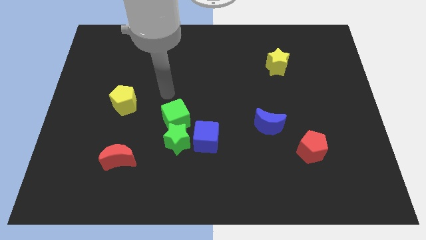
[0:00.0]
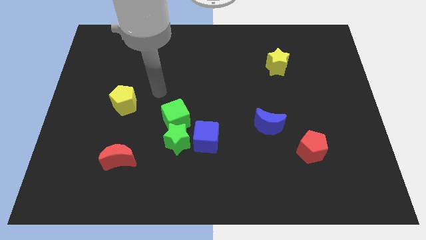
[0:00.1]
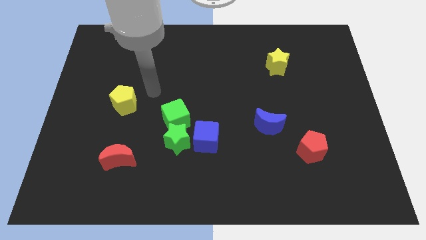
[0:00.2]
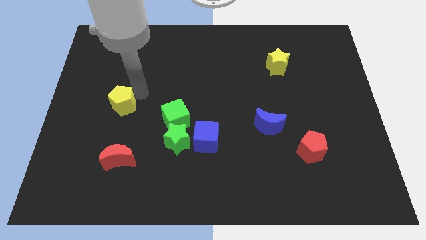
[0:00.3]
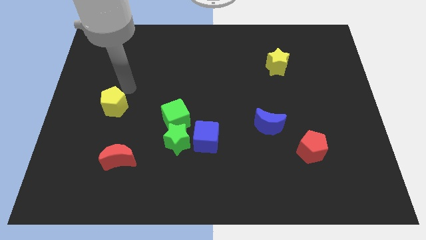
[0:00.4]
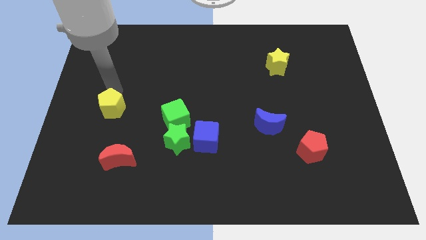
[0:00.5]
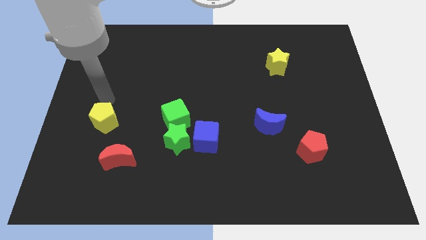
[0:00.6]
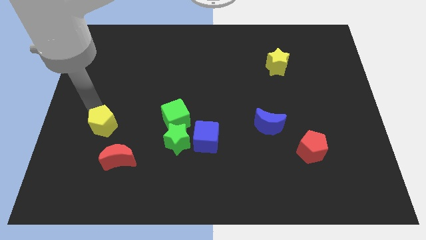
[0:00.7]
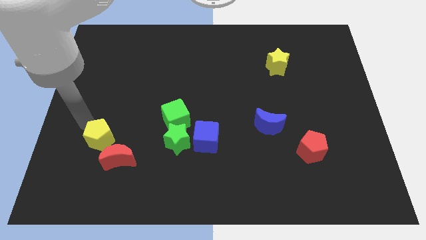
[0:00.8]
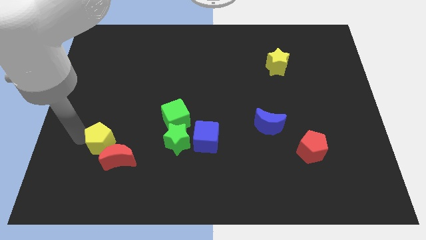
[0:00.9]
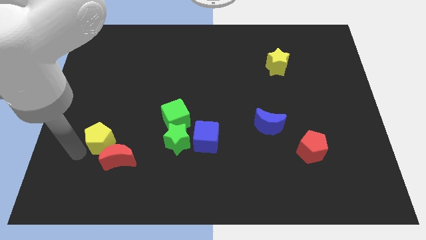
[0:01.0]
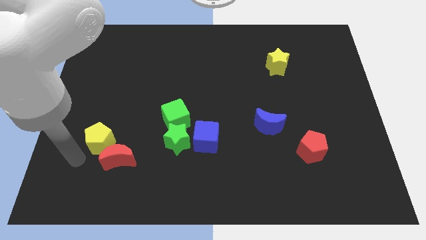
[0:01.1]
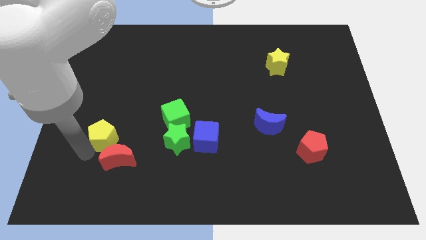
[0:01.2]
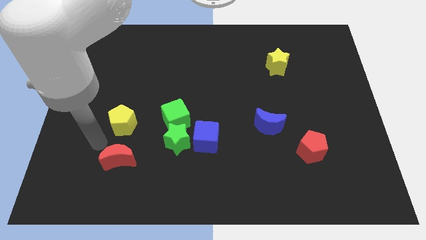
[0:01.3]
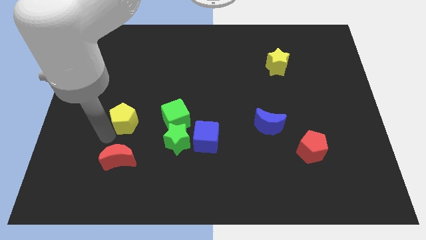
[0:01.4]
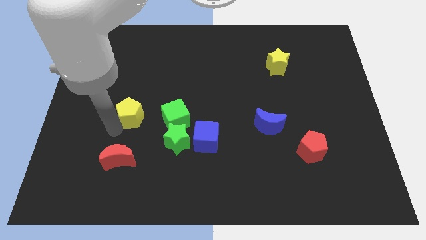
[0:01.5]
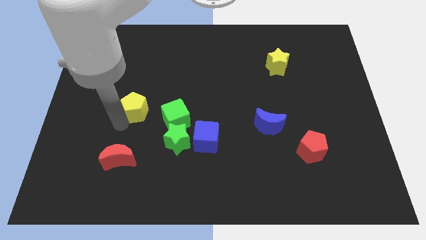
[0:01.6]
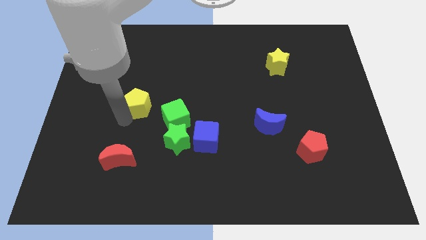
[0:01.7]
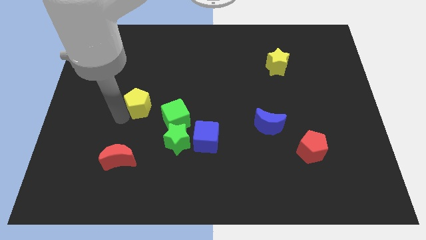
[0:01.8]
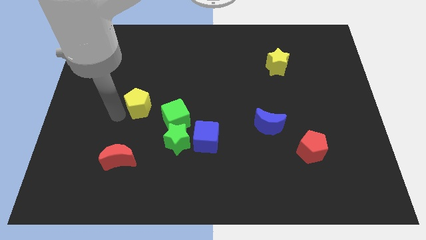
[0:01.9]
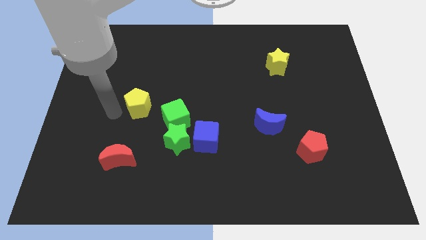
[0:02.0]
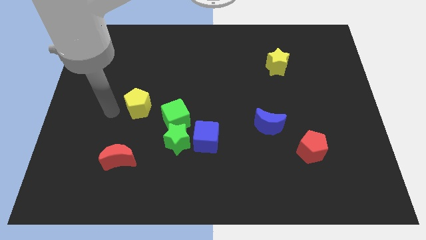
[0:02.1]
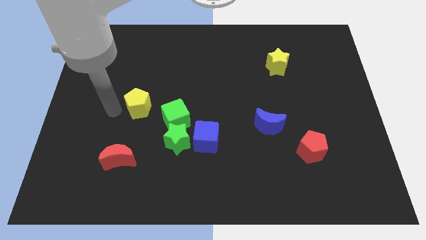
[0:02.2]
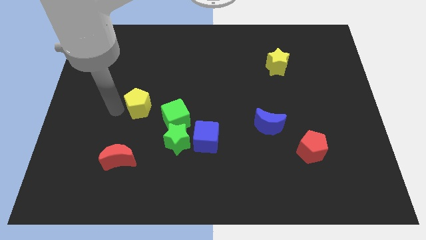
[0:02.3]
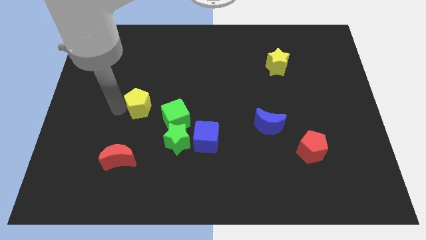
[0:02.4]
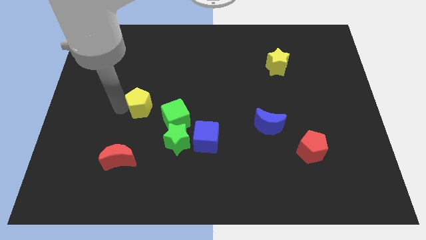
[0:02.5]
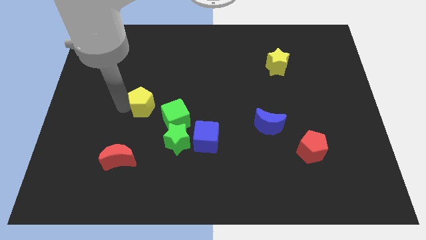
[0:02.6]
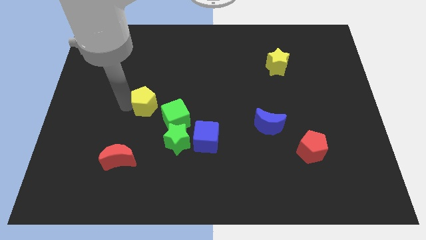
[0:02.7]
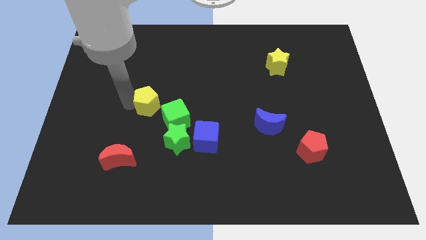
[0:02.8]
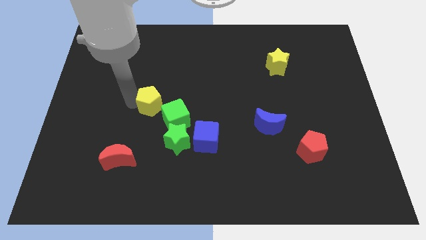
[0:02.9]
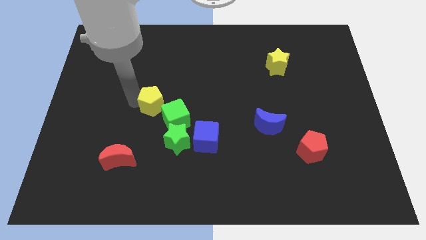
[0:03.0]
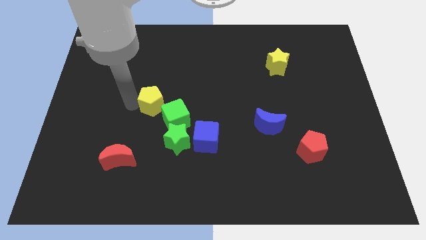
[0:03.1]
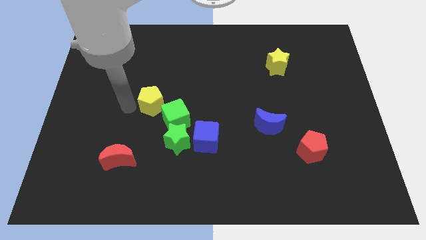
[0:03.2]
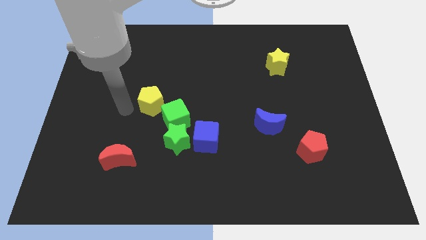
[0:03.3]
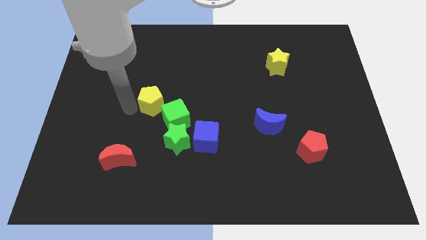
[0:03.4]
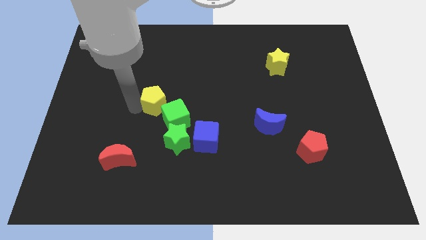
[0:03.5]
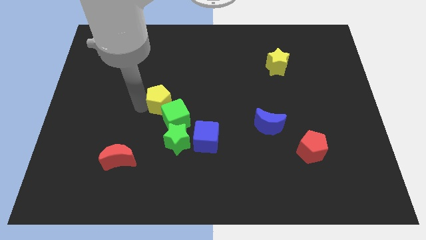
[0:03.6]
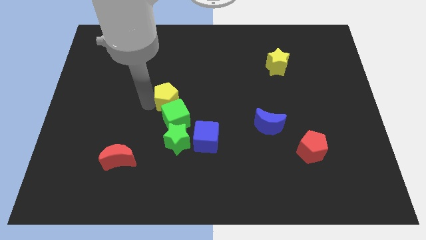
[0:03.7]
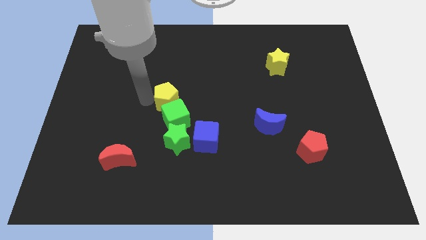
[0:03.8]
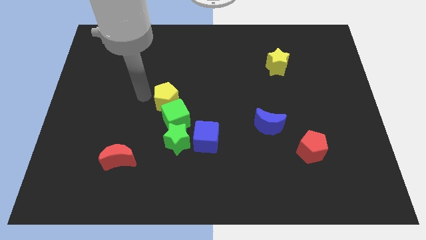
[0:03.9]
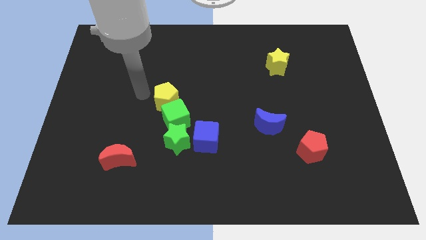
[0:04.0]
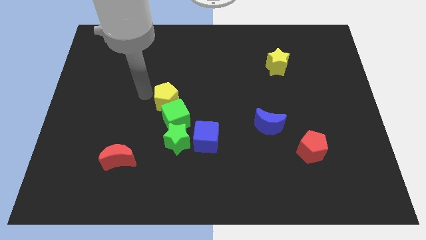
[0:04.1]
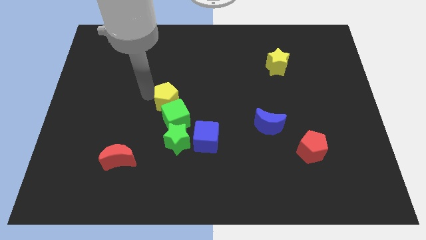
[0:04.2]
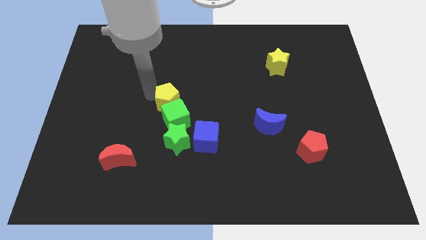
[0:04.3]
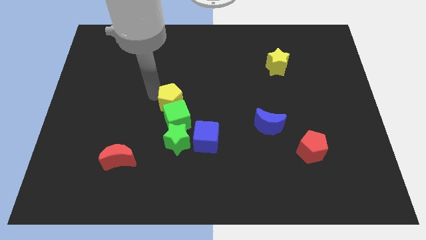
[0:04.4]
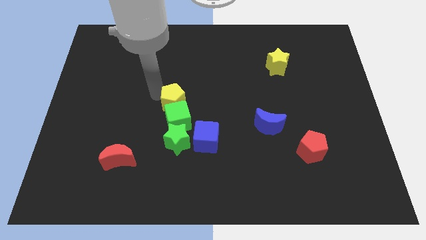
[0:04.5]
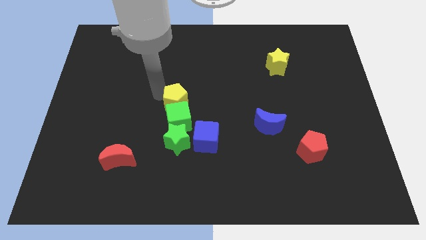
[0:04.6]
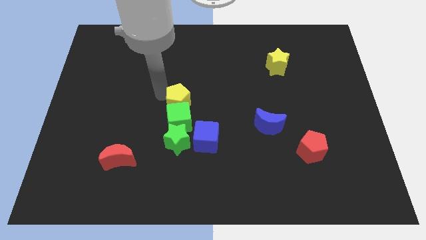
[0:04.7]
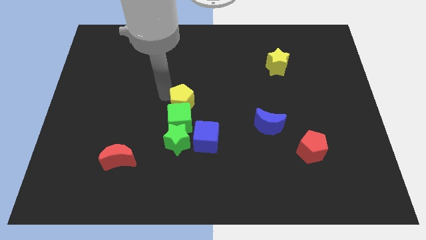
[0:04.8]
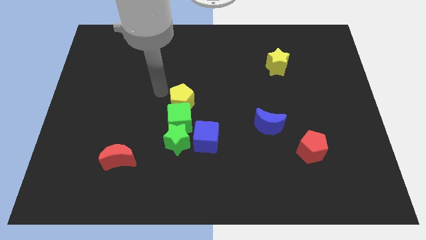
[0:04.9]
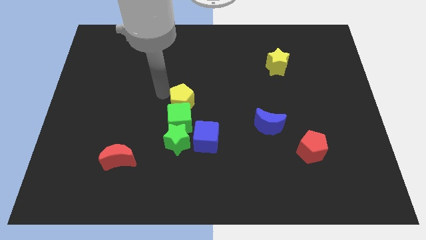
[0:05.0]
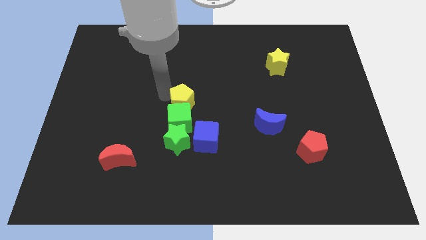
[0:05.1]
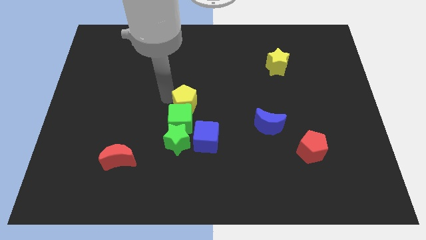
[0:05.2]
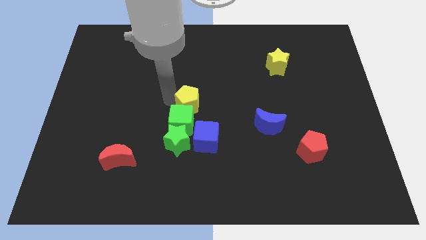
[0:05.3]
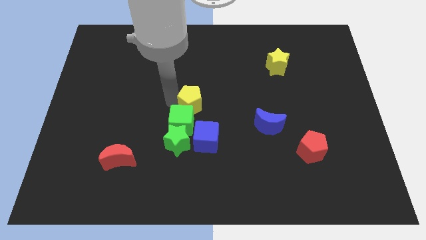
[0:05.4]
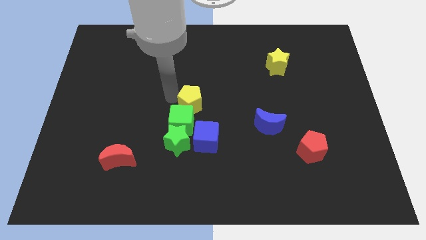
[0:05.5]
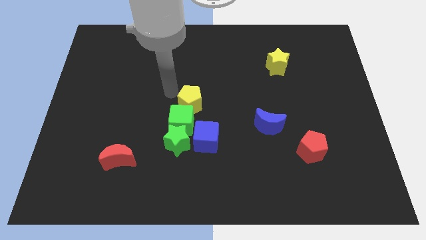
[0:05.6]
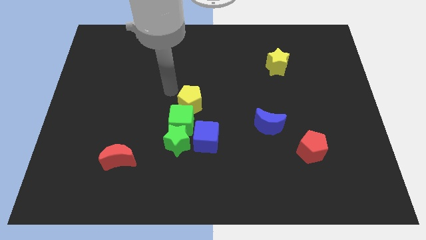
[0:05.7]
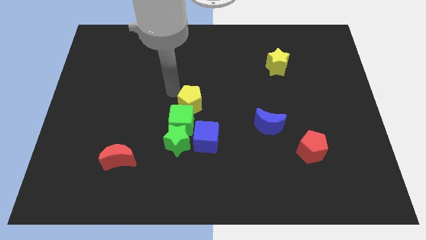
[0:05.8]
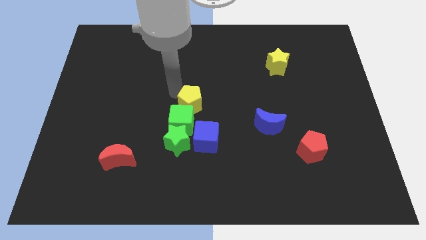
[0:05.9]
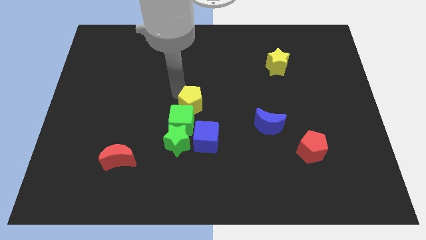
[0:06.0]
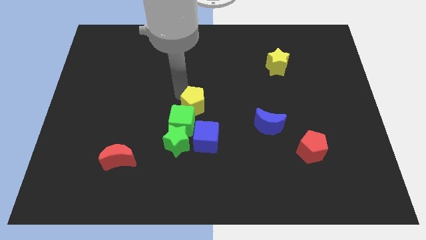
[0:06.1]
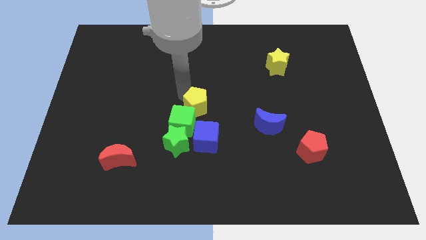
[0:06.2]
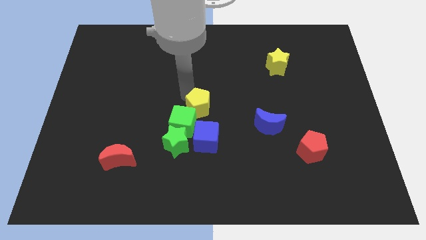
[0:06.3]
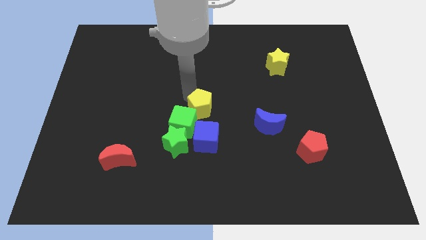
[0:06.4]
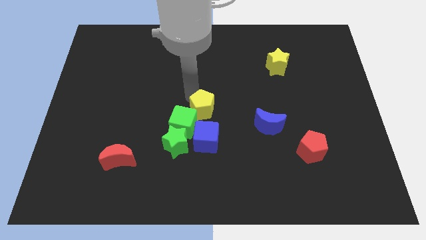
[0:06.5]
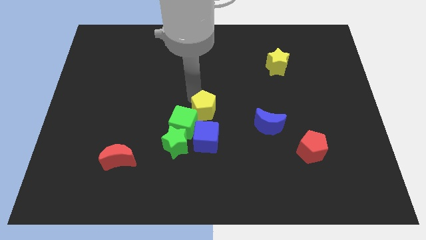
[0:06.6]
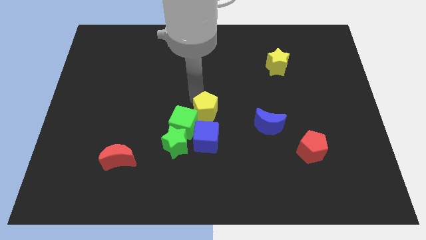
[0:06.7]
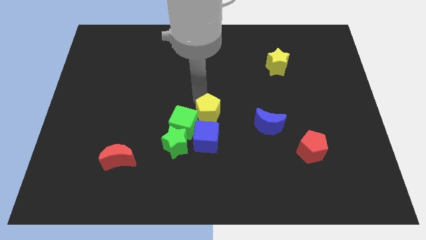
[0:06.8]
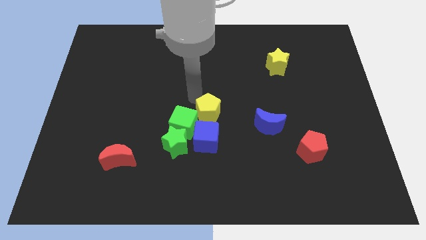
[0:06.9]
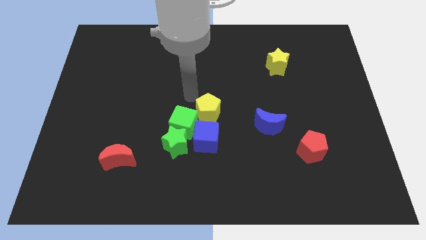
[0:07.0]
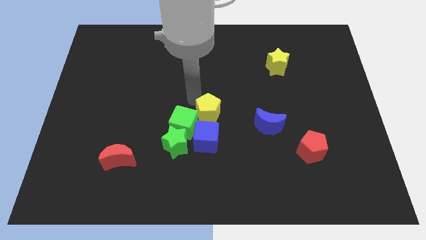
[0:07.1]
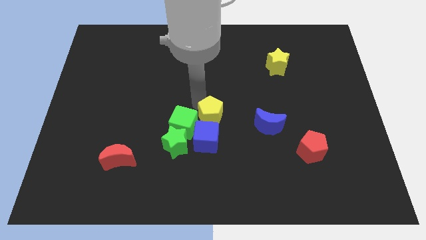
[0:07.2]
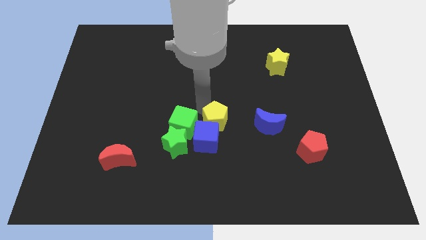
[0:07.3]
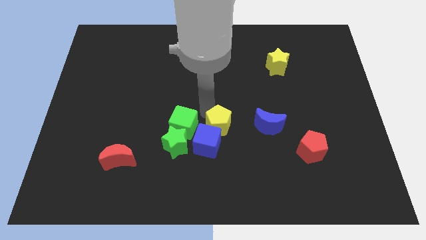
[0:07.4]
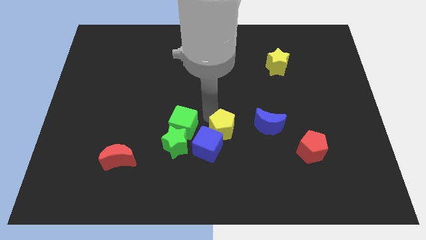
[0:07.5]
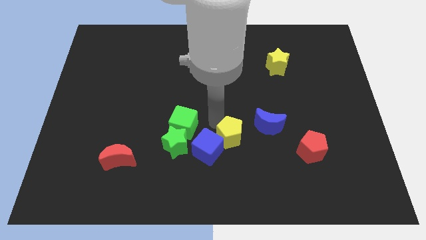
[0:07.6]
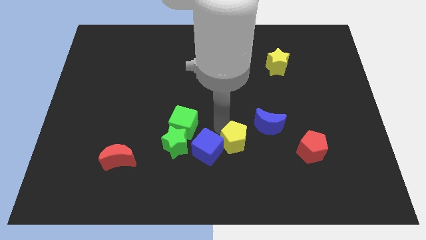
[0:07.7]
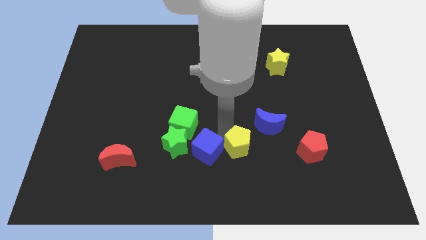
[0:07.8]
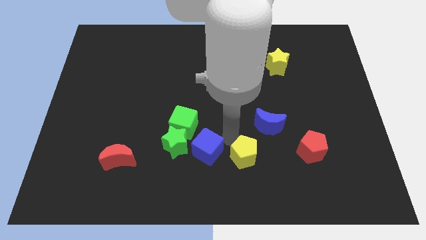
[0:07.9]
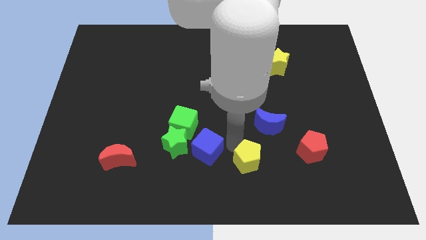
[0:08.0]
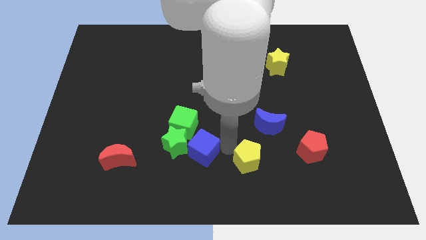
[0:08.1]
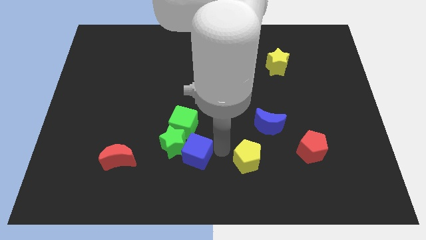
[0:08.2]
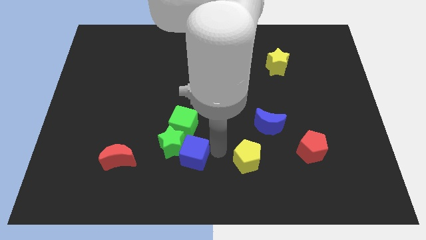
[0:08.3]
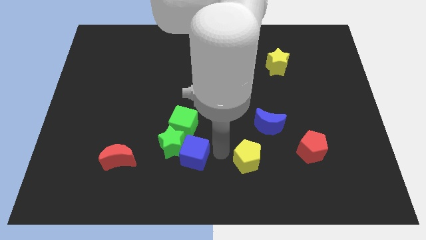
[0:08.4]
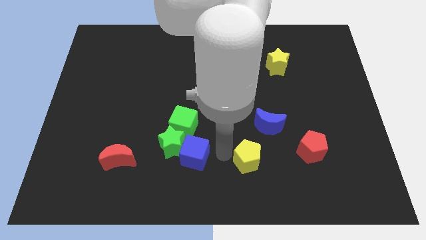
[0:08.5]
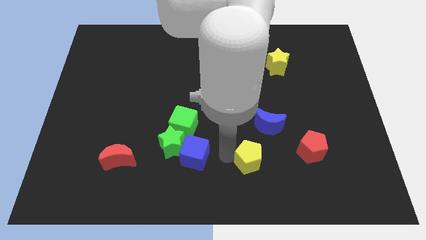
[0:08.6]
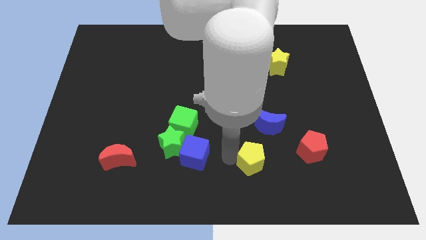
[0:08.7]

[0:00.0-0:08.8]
slide the yellow pentagon below the blue moon

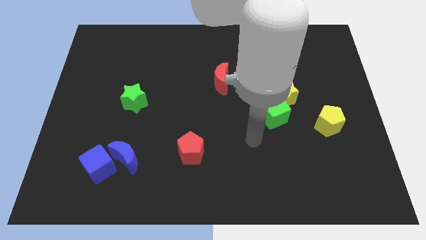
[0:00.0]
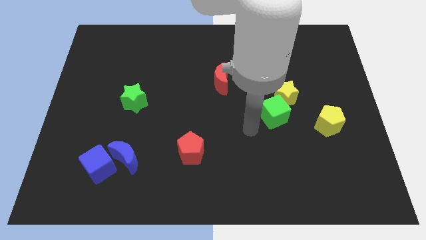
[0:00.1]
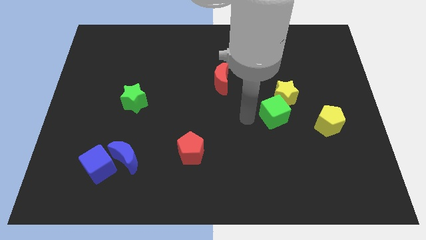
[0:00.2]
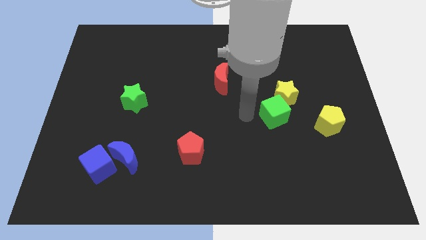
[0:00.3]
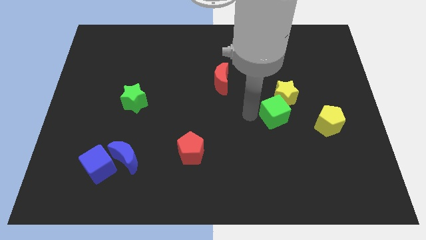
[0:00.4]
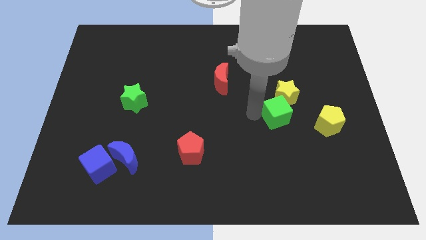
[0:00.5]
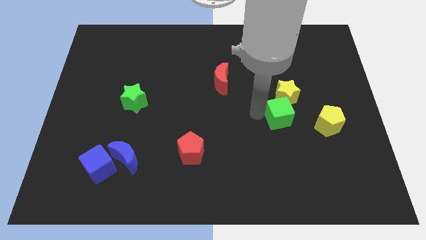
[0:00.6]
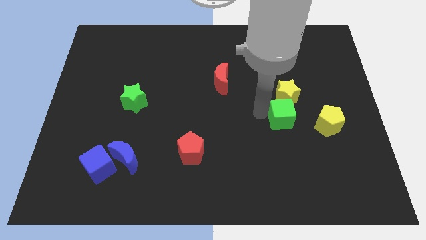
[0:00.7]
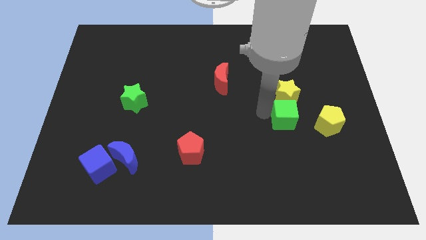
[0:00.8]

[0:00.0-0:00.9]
slide the green cube to the bottom right side of the yellow star
